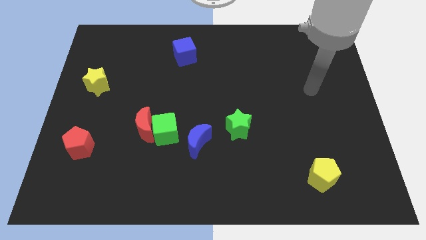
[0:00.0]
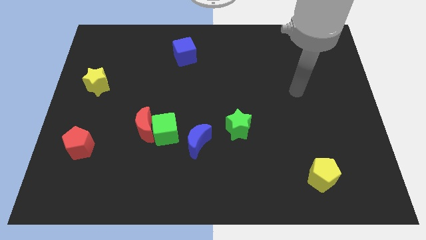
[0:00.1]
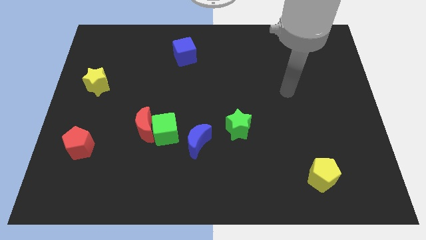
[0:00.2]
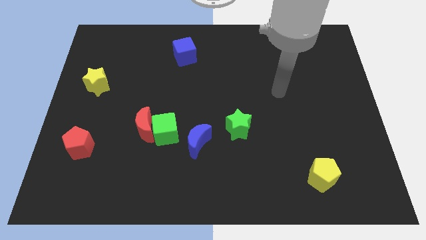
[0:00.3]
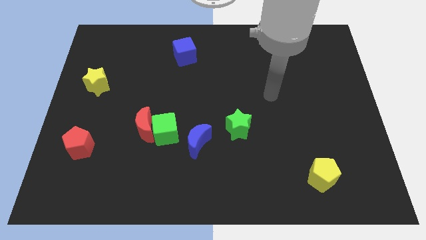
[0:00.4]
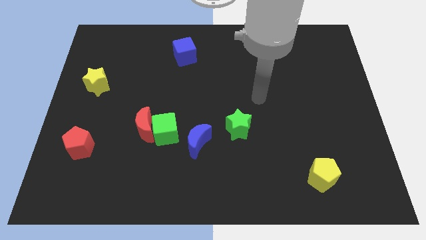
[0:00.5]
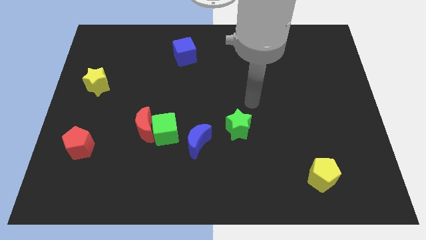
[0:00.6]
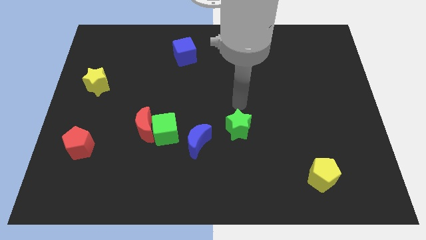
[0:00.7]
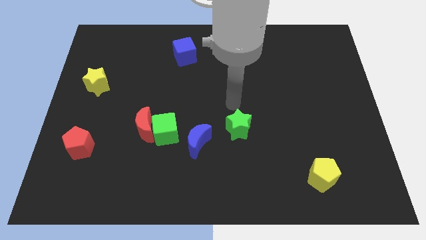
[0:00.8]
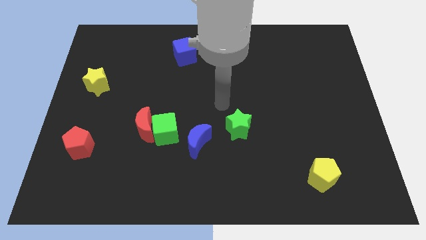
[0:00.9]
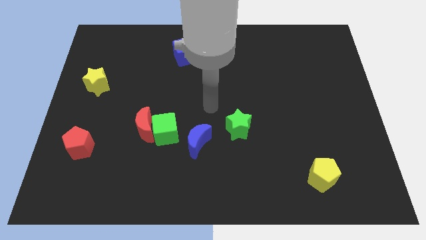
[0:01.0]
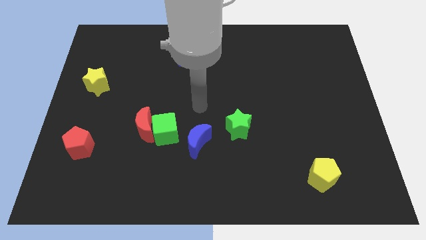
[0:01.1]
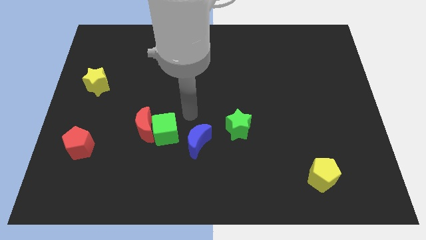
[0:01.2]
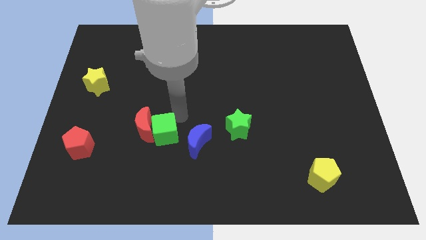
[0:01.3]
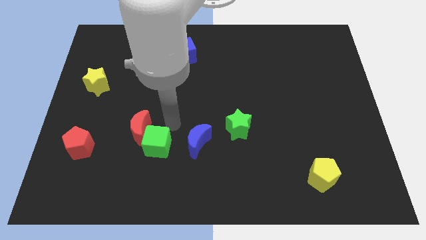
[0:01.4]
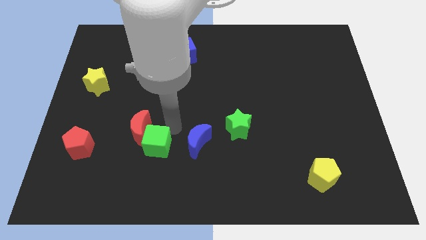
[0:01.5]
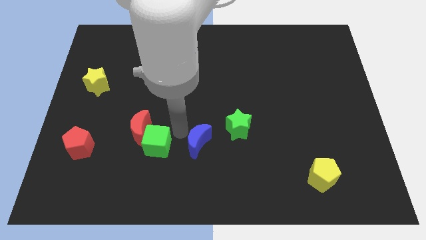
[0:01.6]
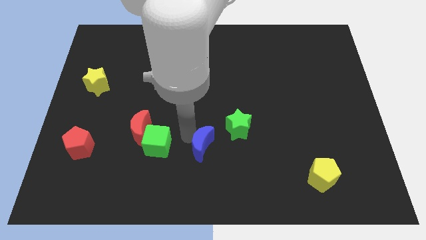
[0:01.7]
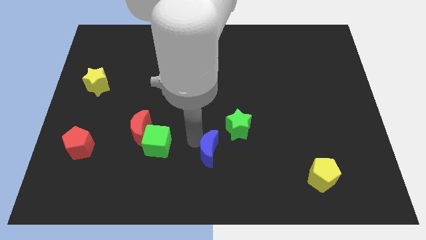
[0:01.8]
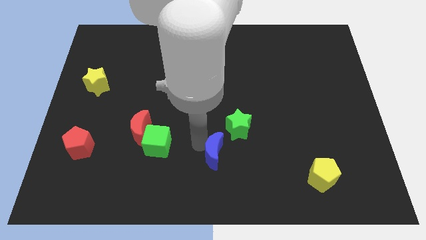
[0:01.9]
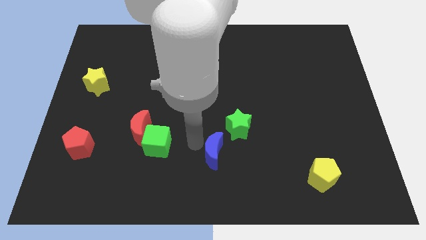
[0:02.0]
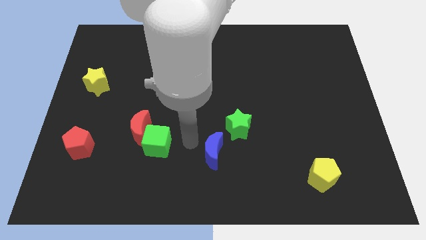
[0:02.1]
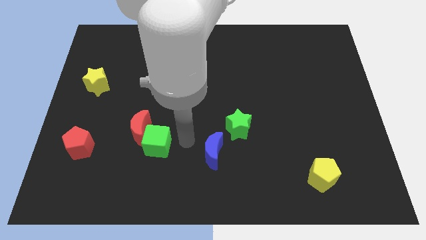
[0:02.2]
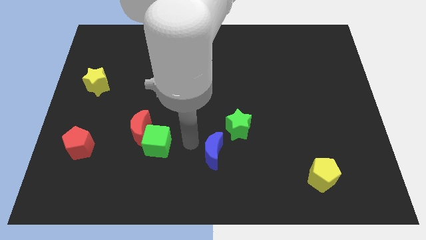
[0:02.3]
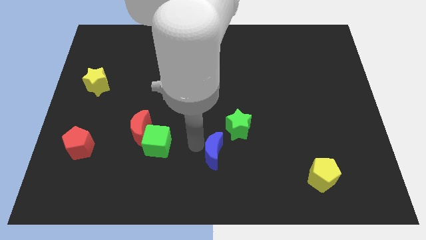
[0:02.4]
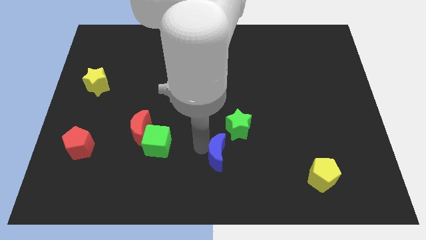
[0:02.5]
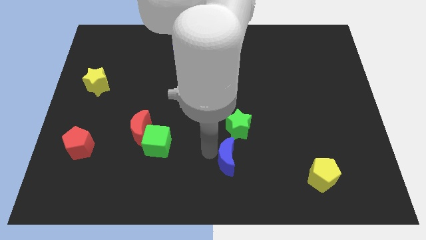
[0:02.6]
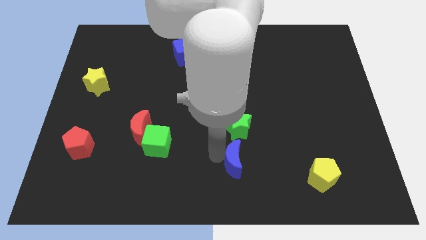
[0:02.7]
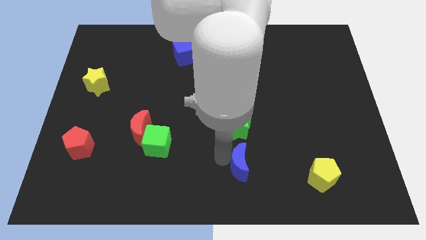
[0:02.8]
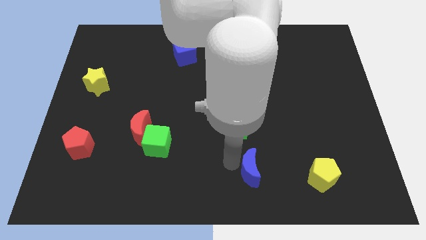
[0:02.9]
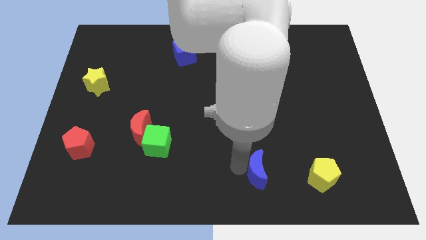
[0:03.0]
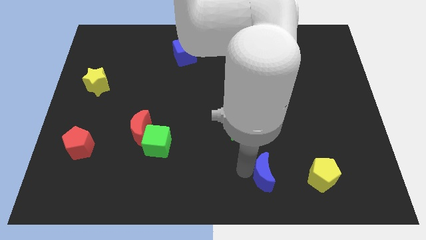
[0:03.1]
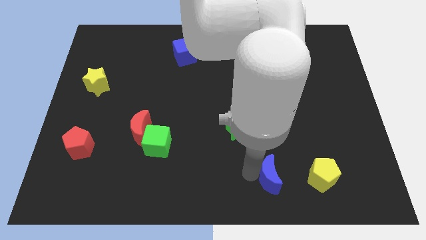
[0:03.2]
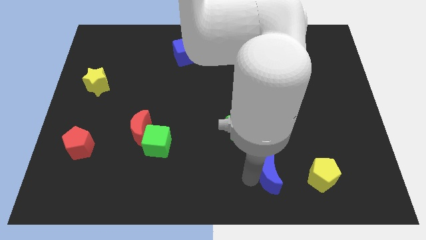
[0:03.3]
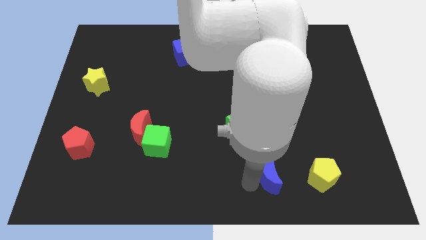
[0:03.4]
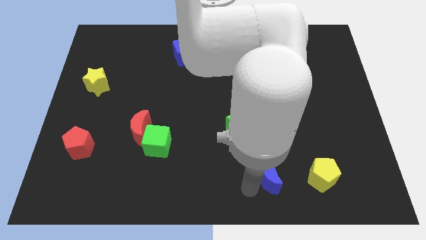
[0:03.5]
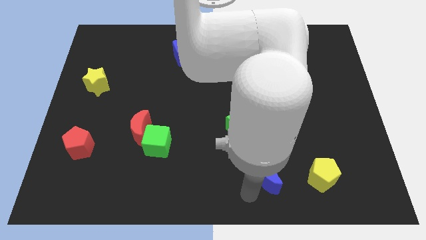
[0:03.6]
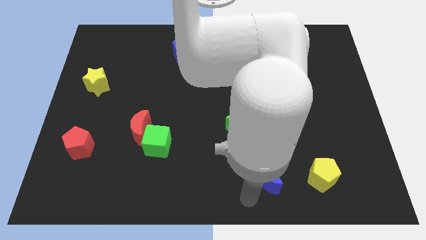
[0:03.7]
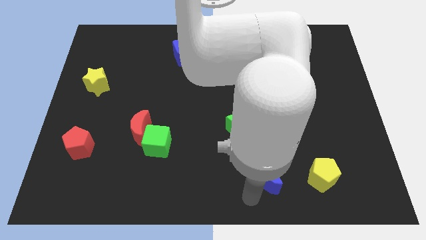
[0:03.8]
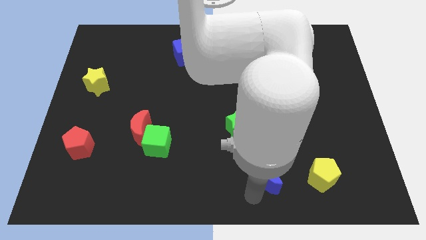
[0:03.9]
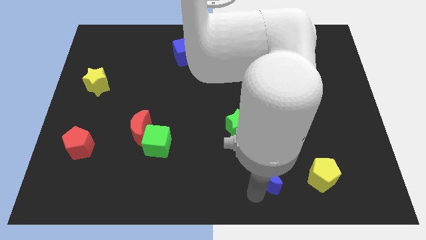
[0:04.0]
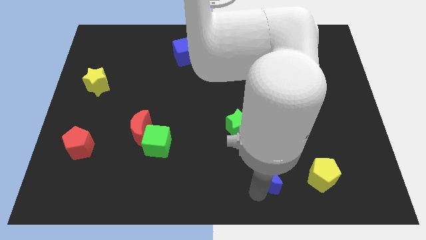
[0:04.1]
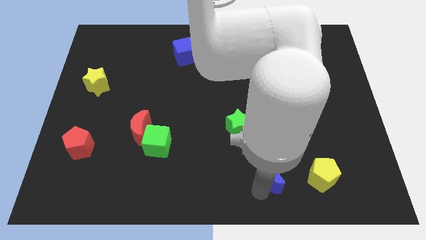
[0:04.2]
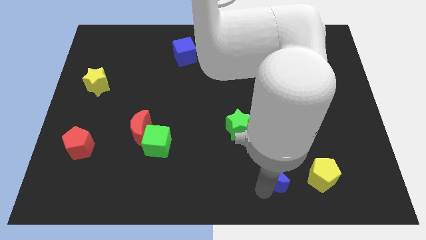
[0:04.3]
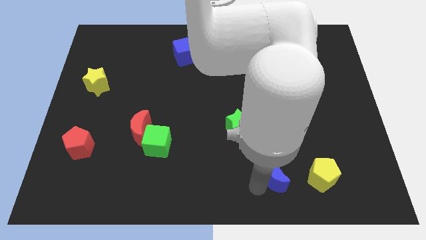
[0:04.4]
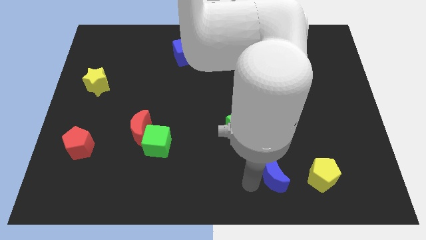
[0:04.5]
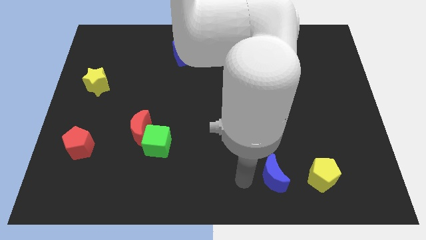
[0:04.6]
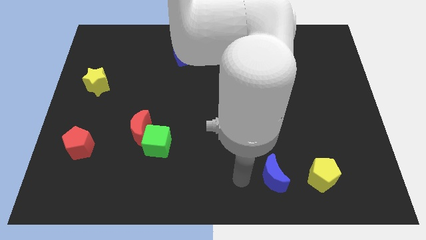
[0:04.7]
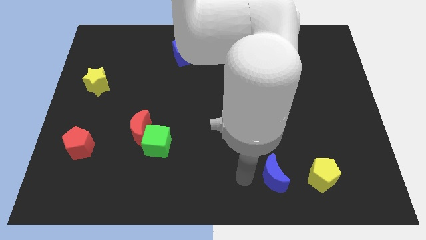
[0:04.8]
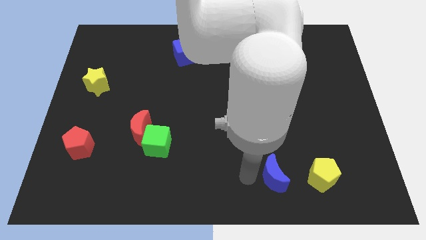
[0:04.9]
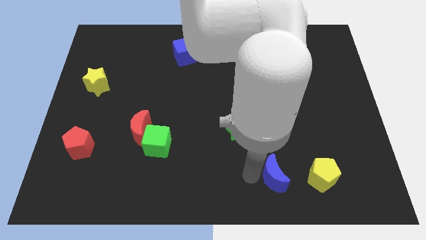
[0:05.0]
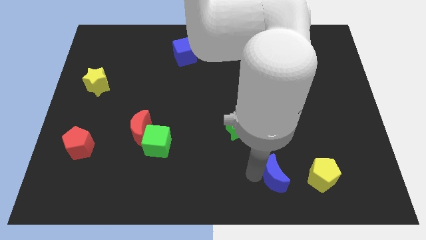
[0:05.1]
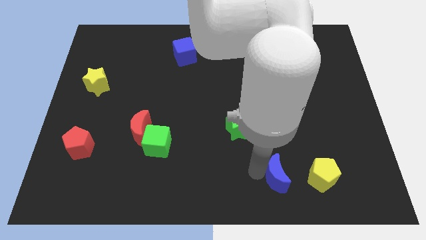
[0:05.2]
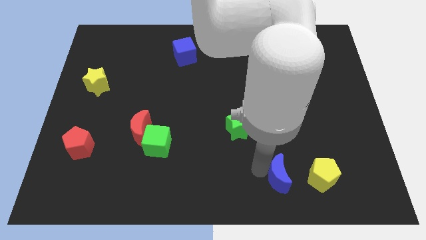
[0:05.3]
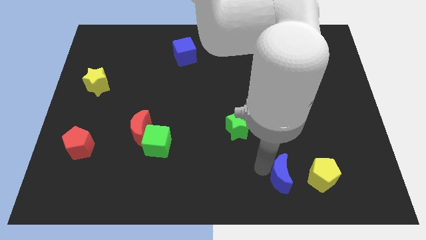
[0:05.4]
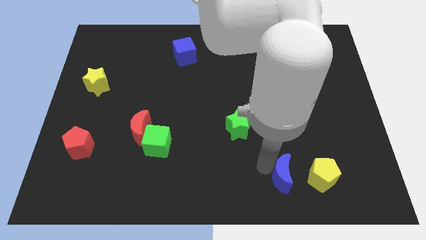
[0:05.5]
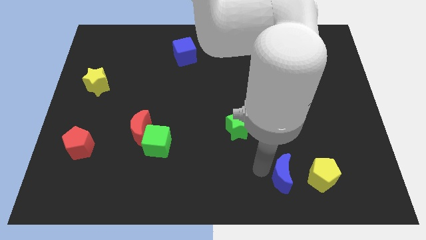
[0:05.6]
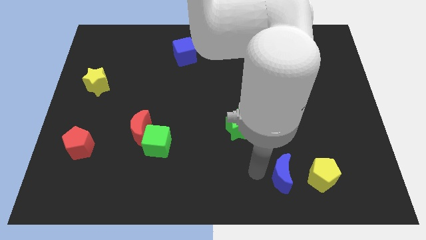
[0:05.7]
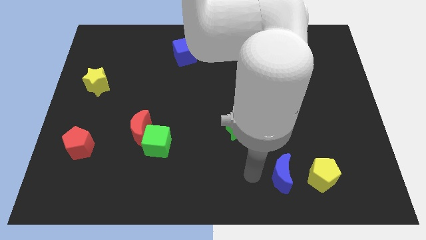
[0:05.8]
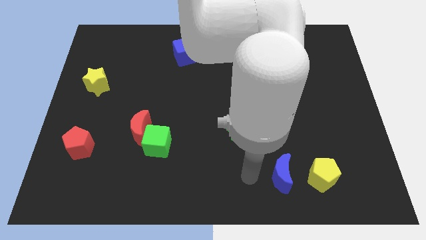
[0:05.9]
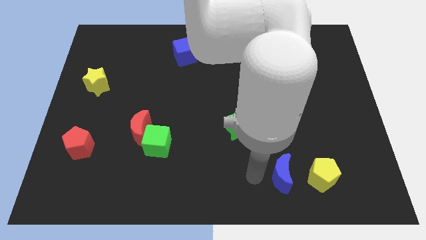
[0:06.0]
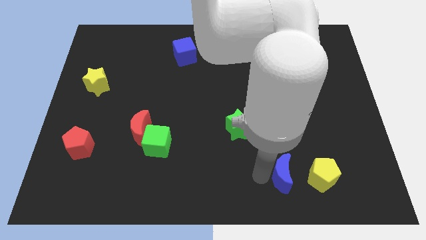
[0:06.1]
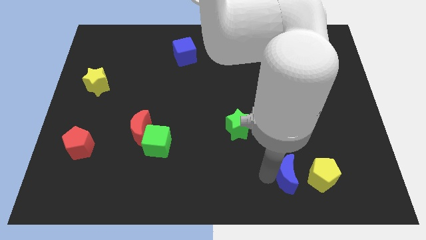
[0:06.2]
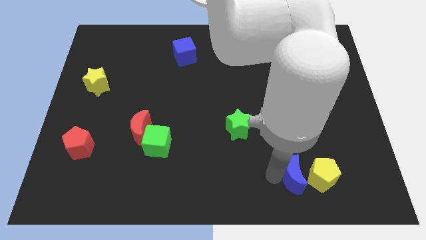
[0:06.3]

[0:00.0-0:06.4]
push the blue moon towards the yellow pentagon

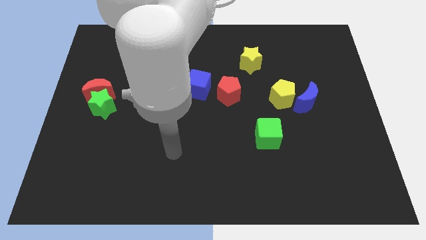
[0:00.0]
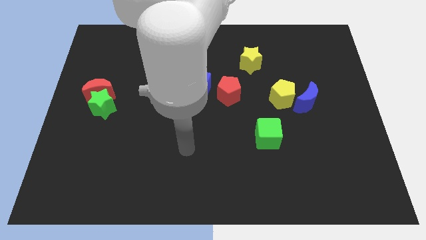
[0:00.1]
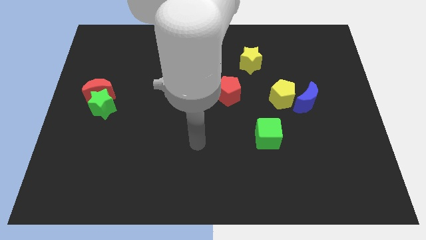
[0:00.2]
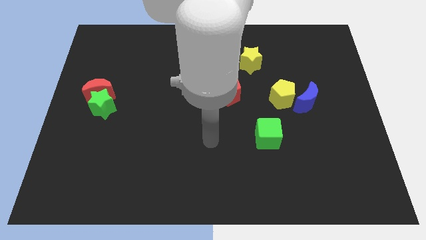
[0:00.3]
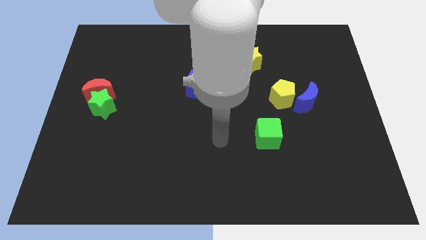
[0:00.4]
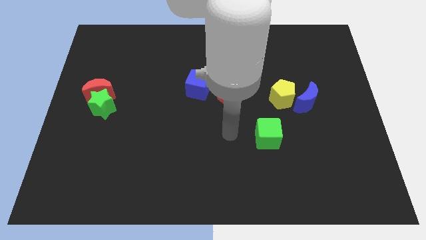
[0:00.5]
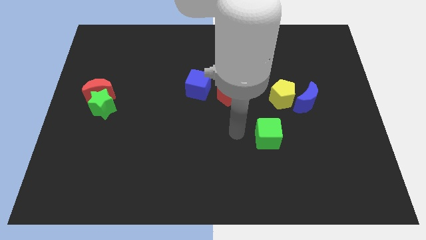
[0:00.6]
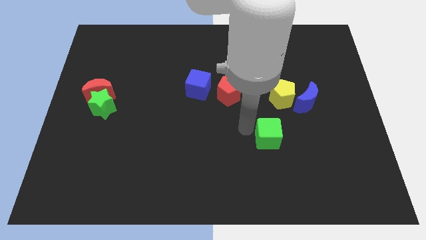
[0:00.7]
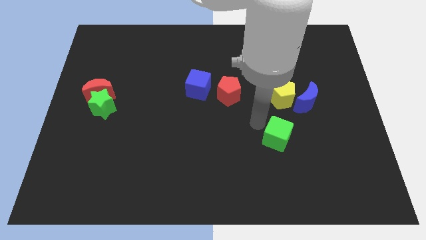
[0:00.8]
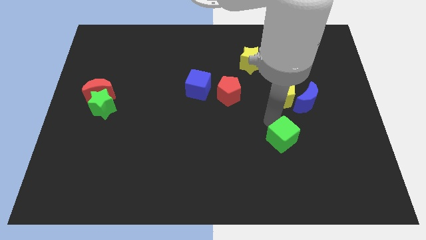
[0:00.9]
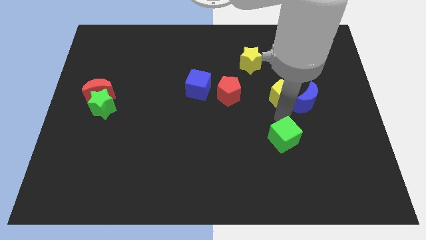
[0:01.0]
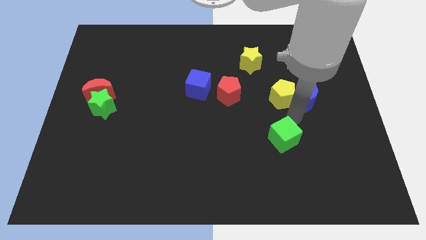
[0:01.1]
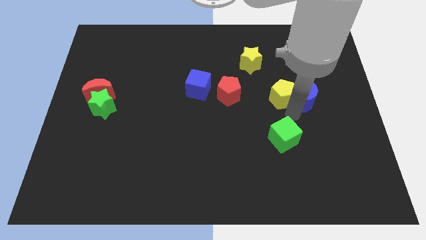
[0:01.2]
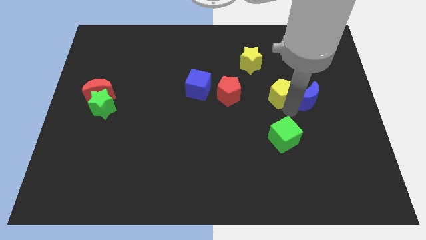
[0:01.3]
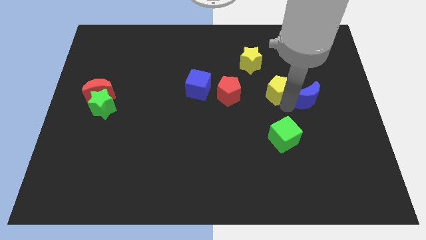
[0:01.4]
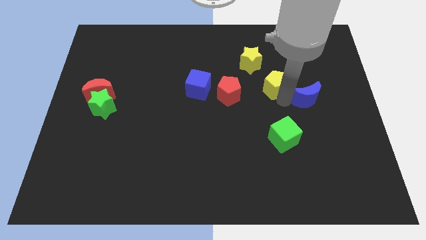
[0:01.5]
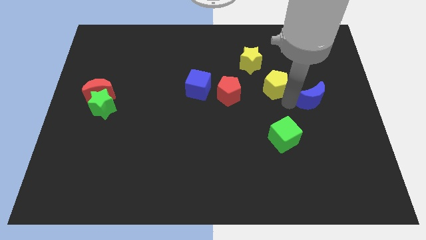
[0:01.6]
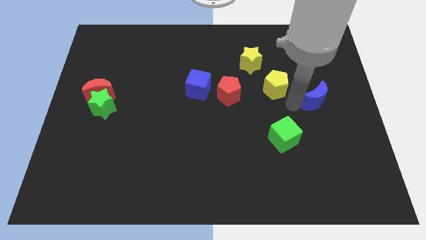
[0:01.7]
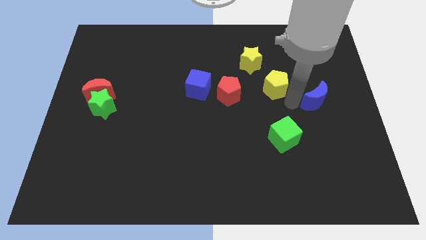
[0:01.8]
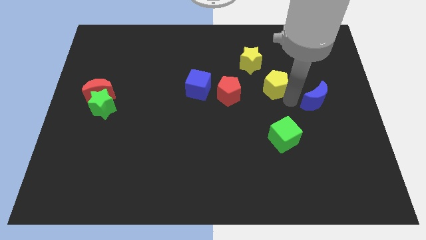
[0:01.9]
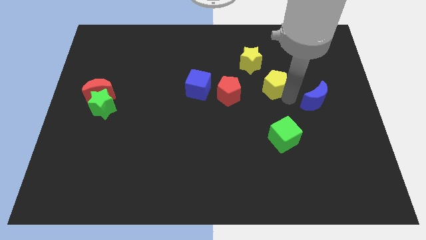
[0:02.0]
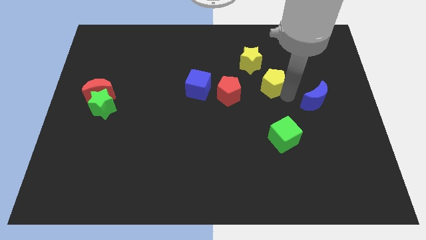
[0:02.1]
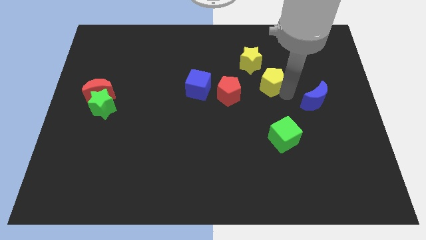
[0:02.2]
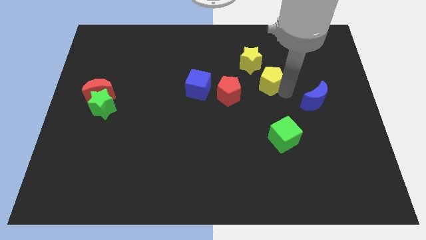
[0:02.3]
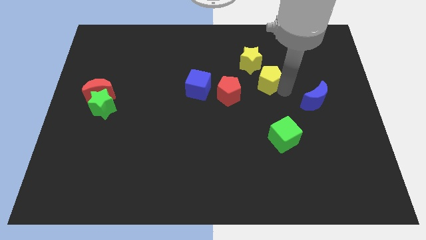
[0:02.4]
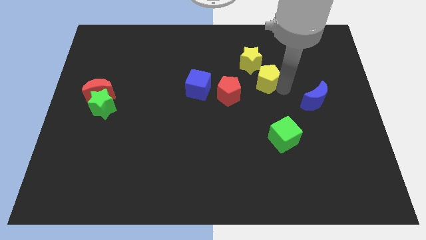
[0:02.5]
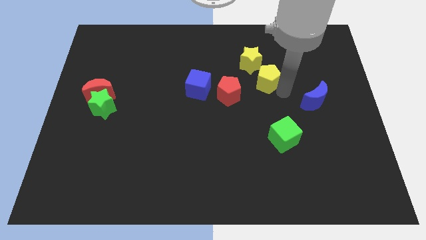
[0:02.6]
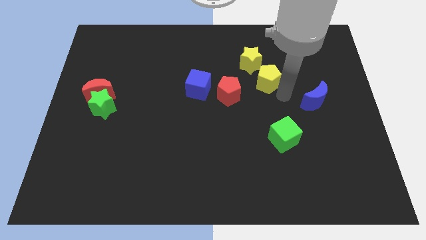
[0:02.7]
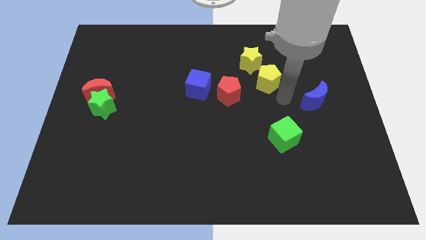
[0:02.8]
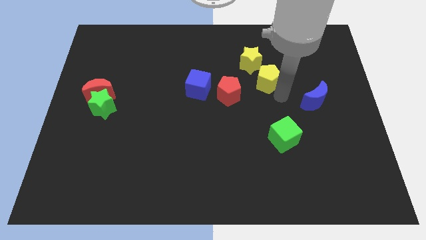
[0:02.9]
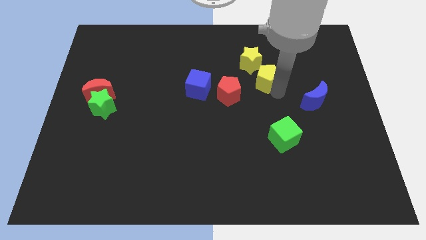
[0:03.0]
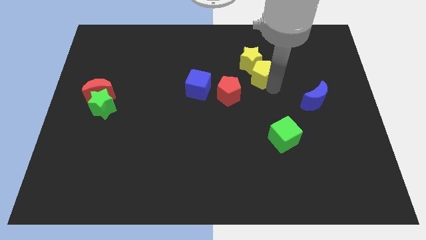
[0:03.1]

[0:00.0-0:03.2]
move the yellow pentagon towards the yellow star
